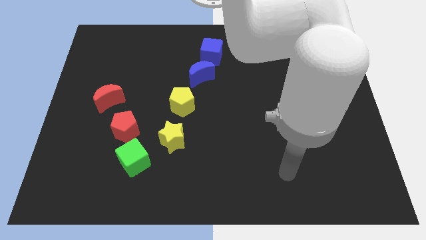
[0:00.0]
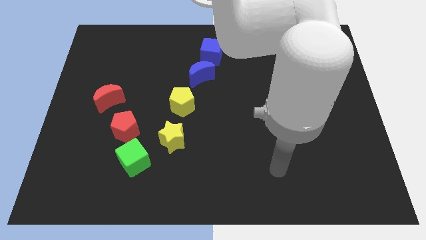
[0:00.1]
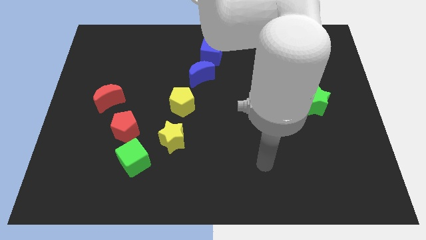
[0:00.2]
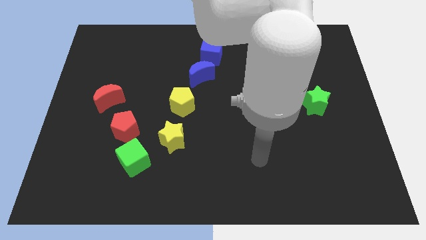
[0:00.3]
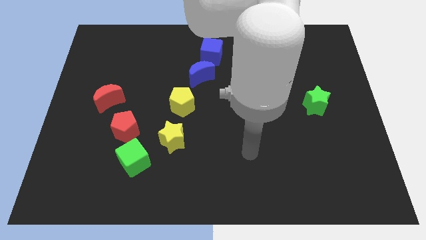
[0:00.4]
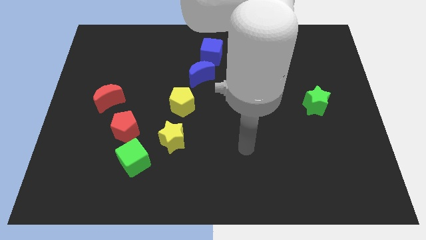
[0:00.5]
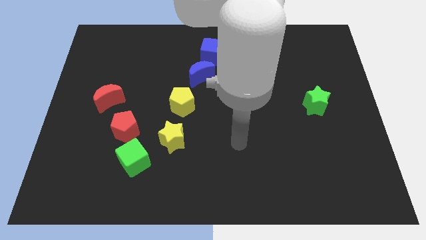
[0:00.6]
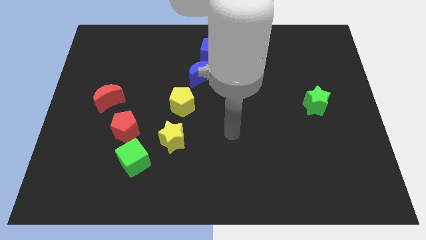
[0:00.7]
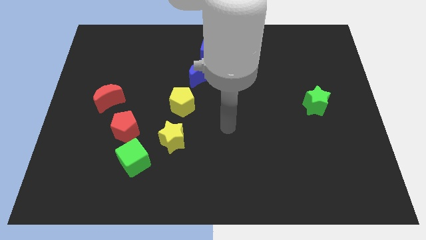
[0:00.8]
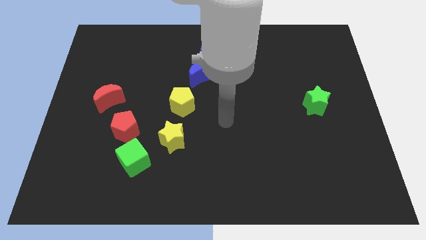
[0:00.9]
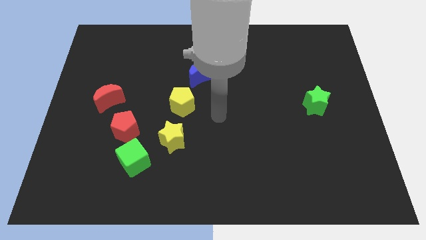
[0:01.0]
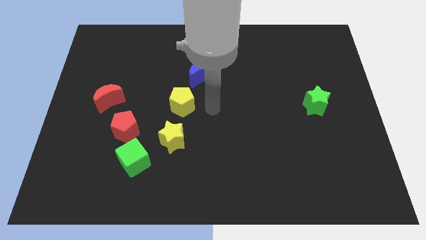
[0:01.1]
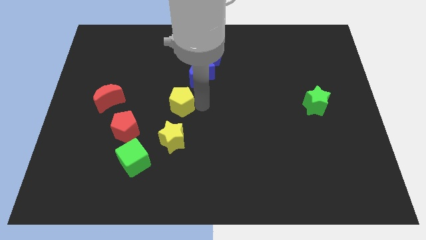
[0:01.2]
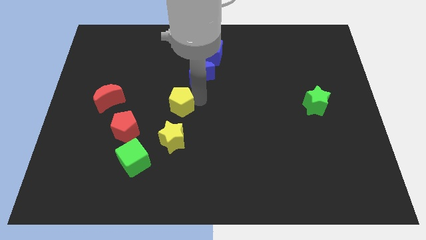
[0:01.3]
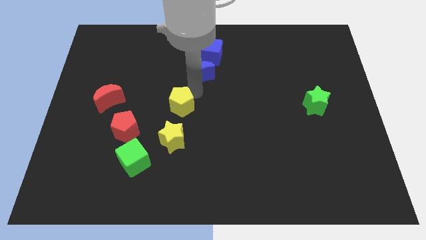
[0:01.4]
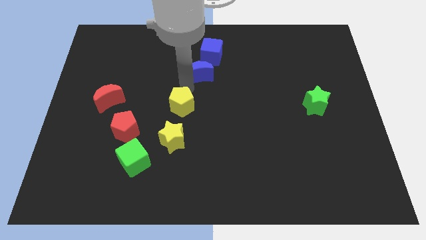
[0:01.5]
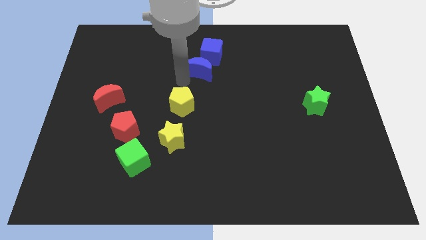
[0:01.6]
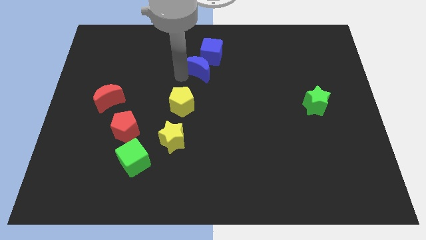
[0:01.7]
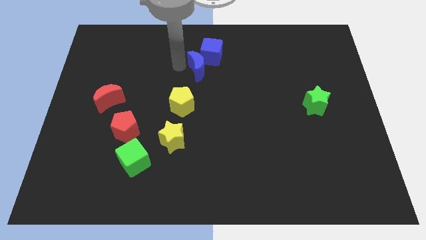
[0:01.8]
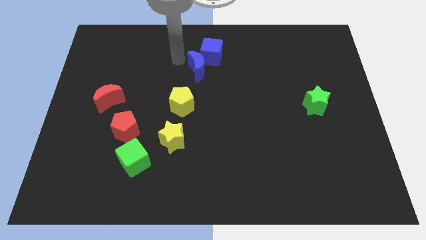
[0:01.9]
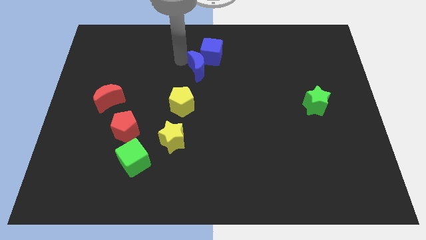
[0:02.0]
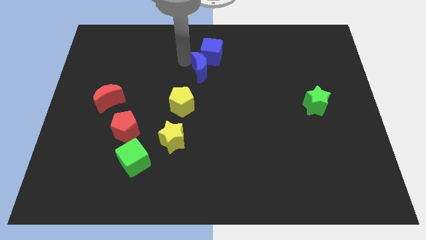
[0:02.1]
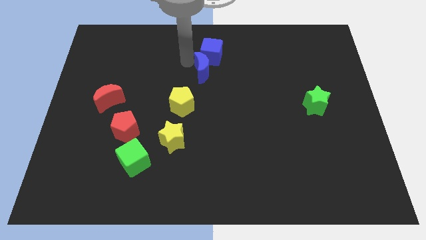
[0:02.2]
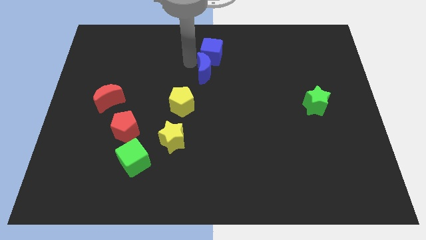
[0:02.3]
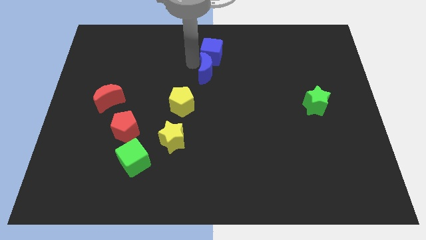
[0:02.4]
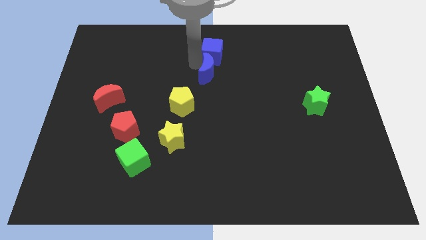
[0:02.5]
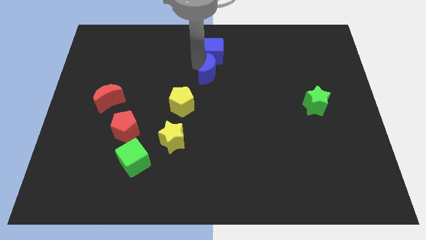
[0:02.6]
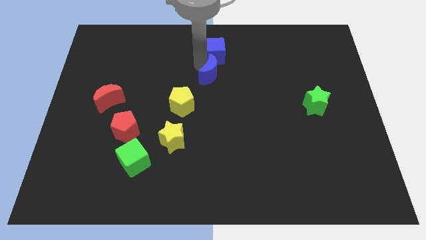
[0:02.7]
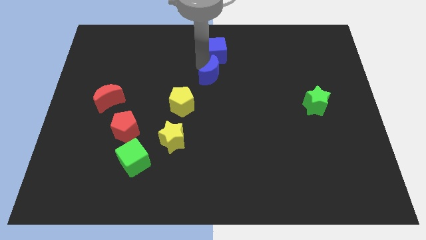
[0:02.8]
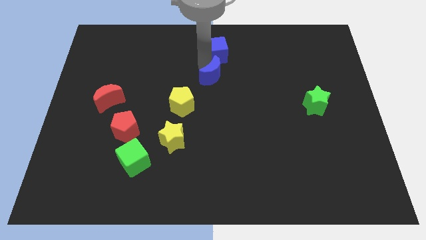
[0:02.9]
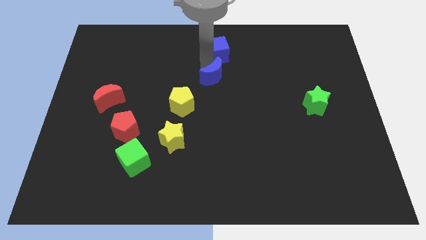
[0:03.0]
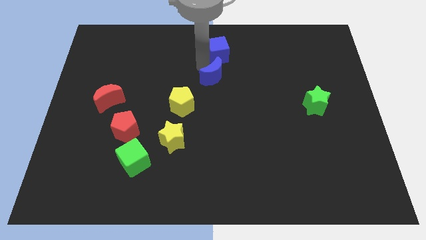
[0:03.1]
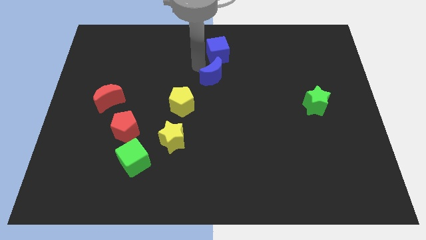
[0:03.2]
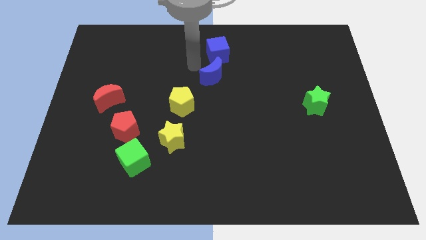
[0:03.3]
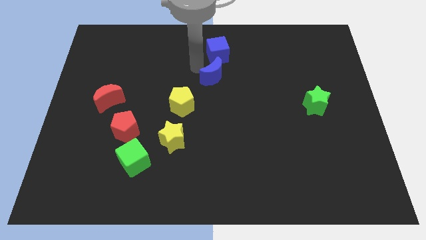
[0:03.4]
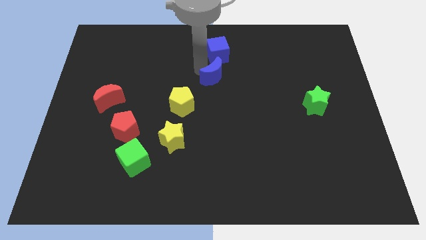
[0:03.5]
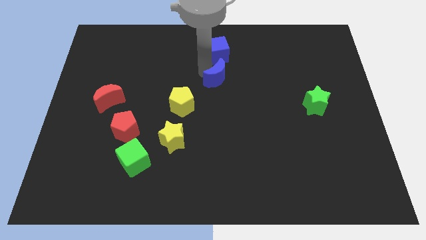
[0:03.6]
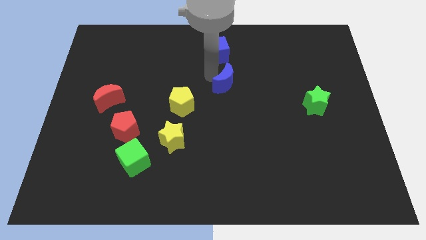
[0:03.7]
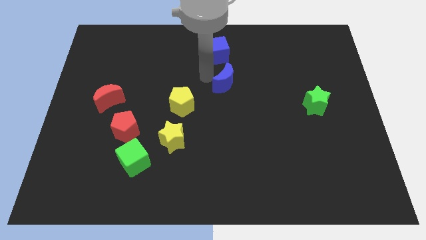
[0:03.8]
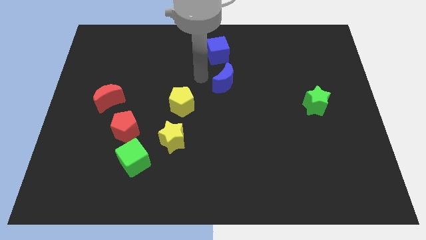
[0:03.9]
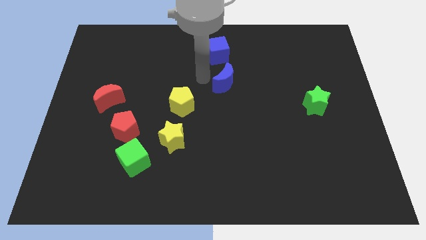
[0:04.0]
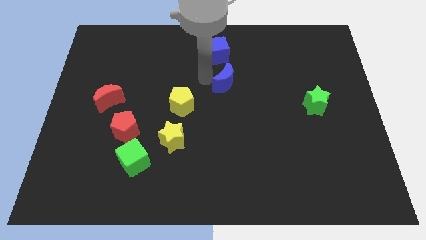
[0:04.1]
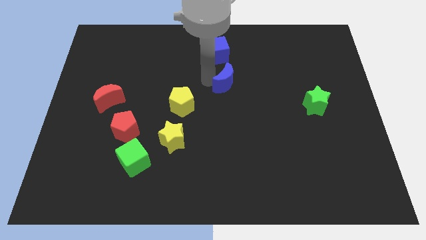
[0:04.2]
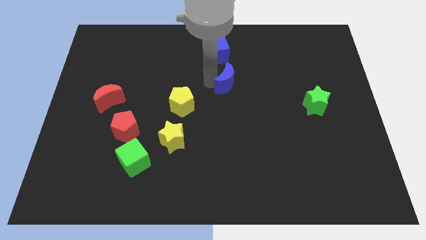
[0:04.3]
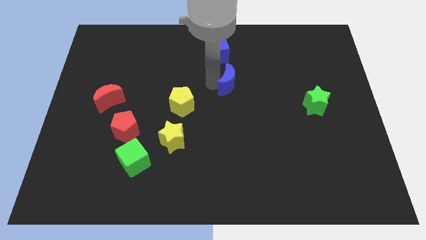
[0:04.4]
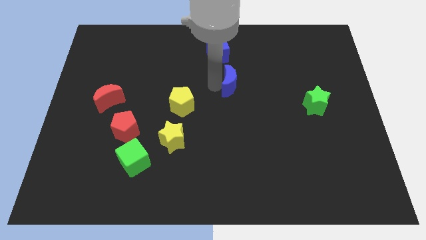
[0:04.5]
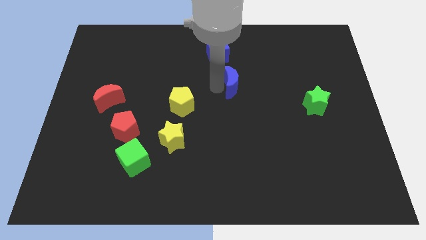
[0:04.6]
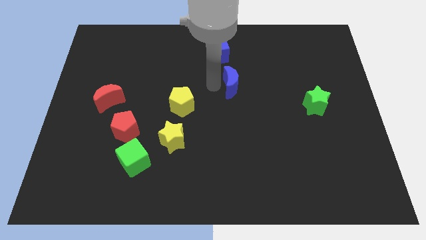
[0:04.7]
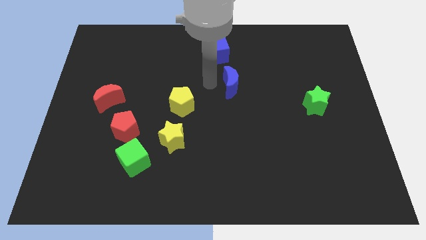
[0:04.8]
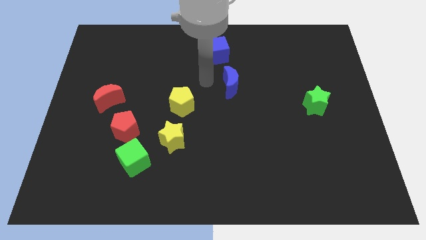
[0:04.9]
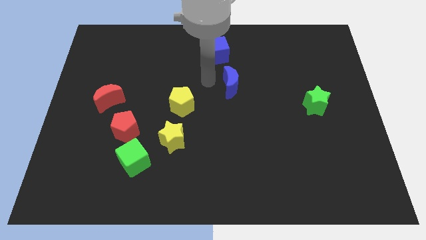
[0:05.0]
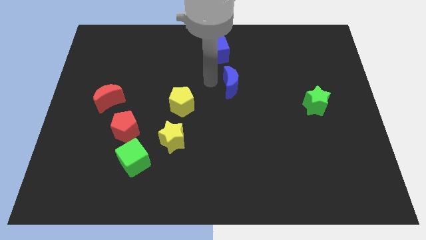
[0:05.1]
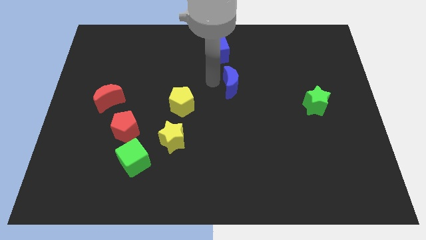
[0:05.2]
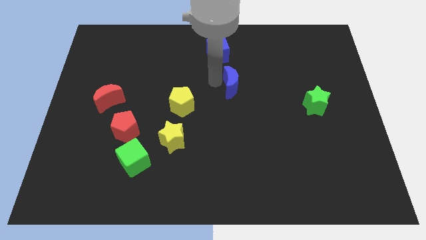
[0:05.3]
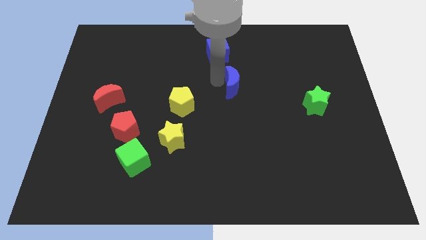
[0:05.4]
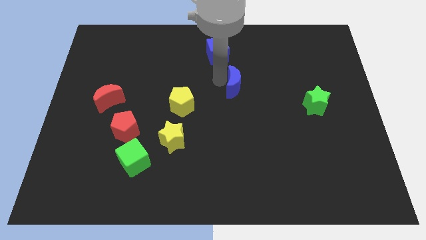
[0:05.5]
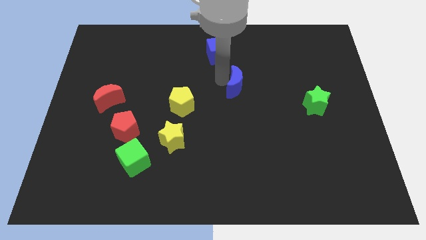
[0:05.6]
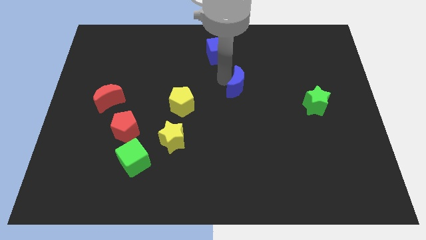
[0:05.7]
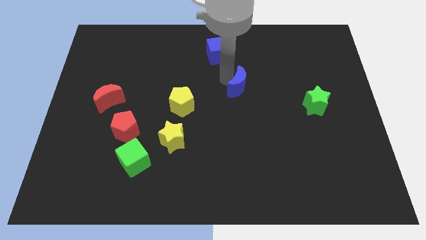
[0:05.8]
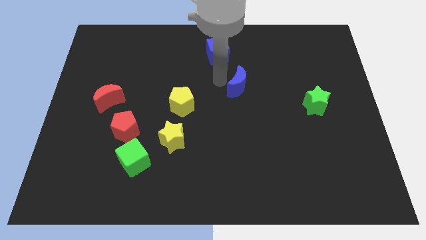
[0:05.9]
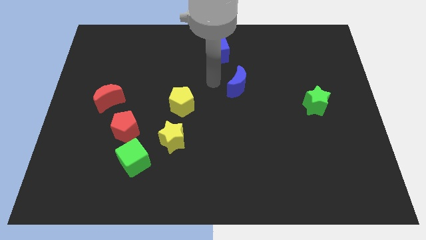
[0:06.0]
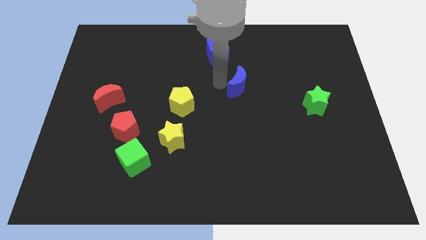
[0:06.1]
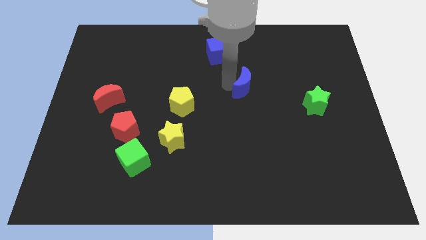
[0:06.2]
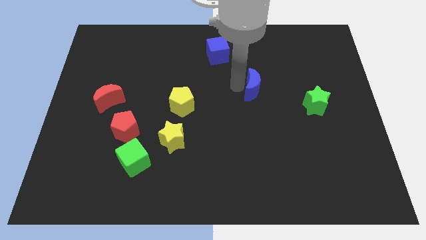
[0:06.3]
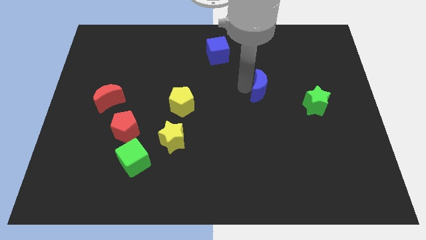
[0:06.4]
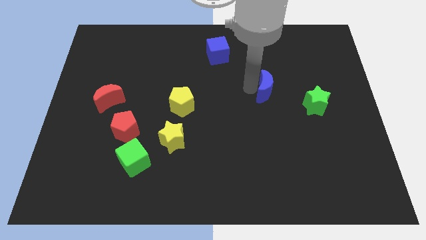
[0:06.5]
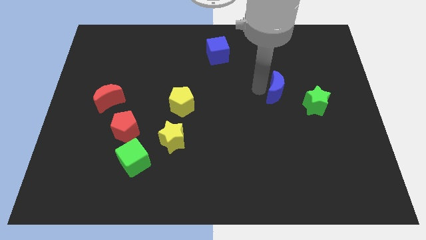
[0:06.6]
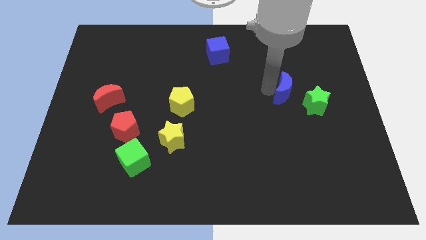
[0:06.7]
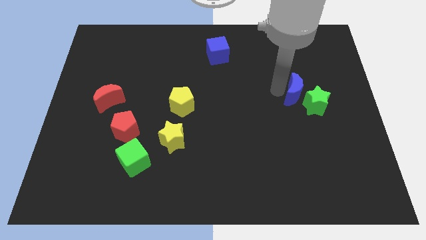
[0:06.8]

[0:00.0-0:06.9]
slide the blue moon to the green star

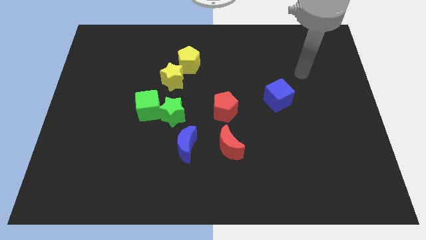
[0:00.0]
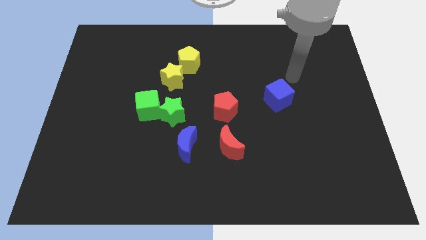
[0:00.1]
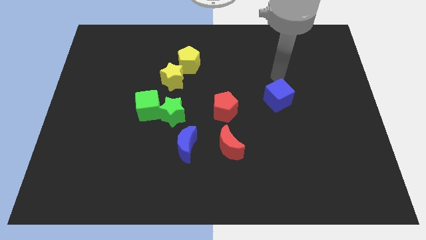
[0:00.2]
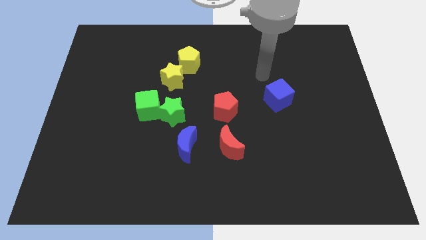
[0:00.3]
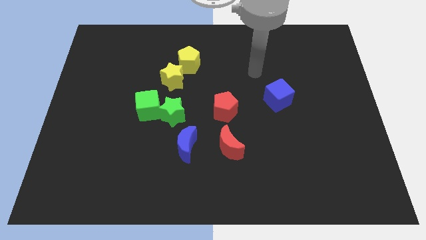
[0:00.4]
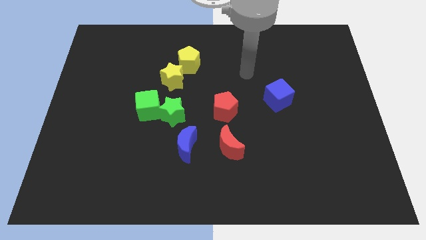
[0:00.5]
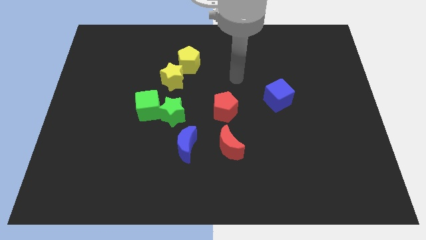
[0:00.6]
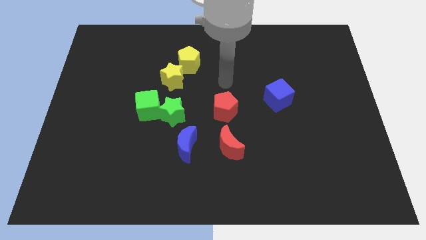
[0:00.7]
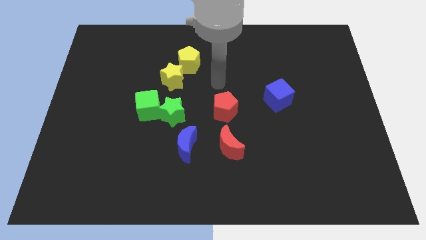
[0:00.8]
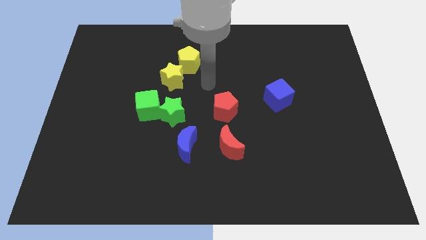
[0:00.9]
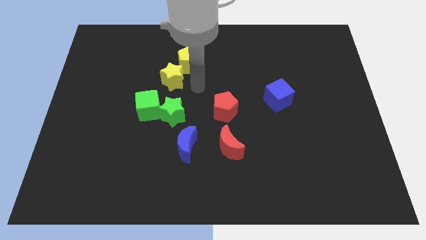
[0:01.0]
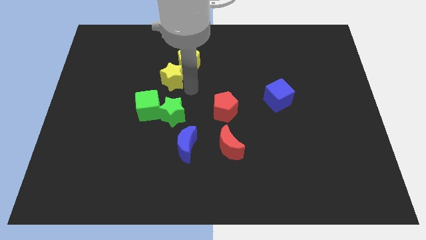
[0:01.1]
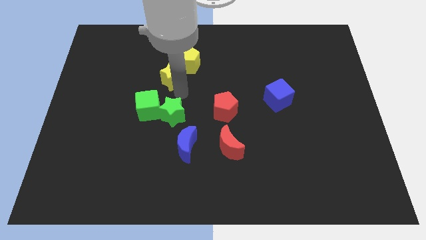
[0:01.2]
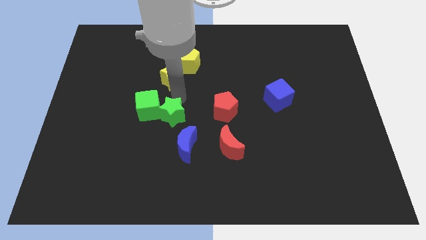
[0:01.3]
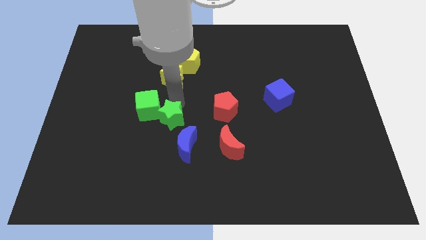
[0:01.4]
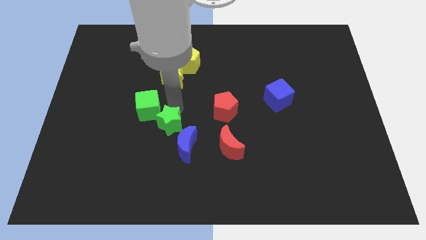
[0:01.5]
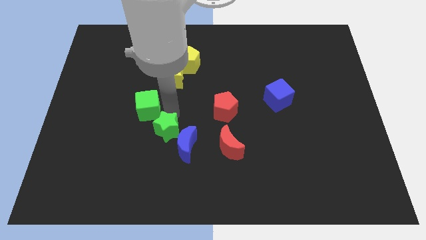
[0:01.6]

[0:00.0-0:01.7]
move the green star towards the blue moon
